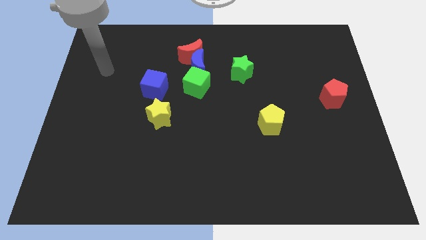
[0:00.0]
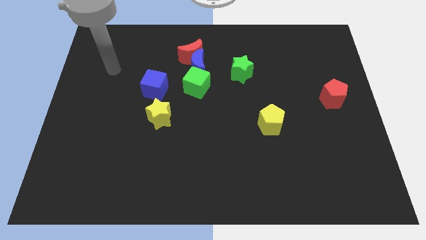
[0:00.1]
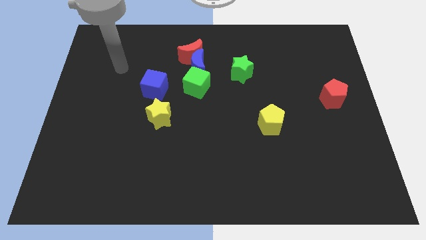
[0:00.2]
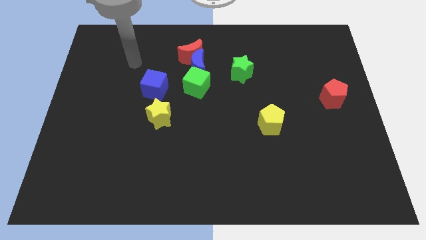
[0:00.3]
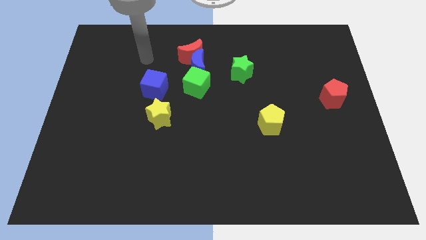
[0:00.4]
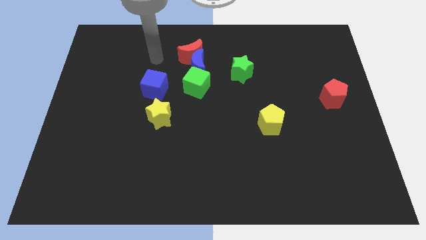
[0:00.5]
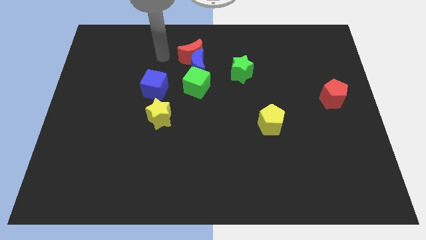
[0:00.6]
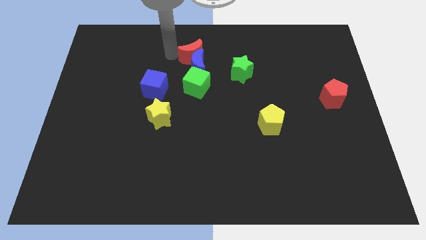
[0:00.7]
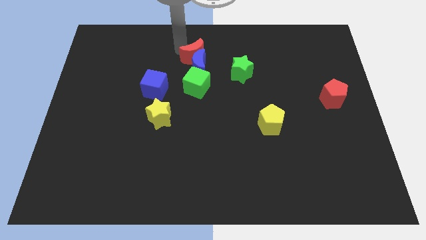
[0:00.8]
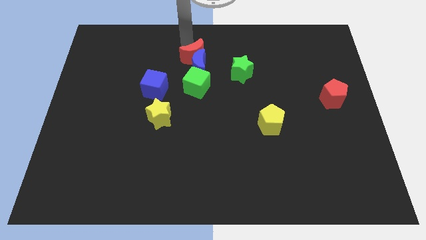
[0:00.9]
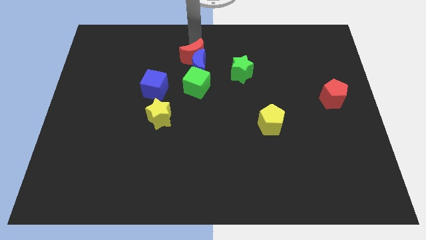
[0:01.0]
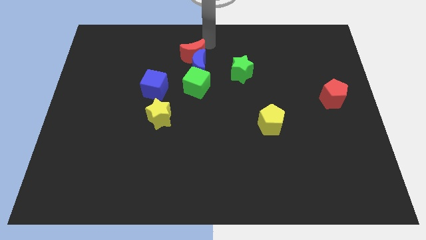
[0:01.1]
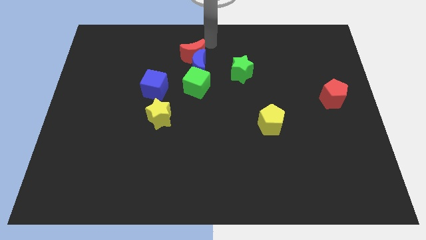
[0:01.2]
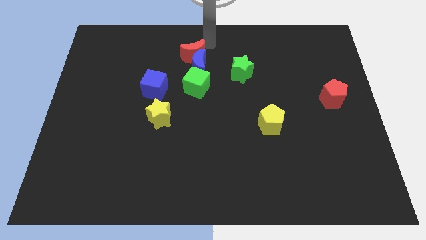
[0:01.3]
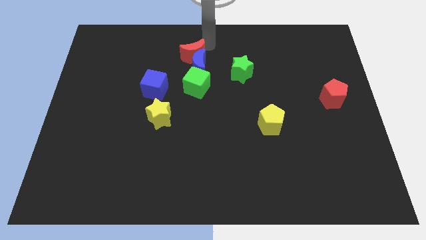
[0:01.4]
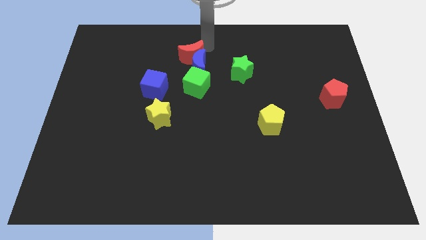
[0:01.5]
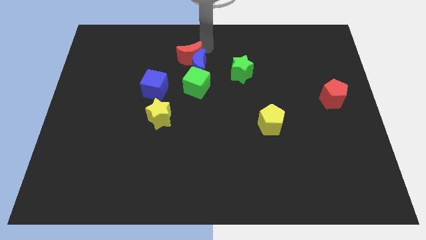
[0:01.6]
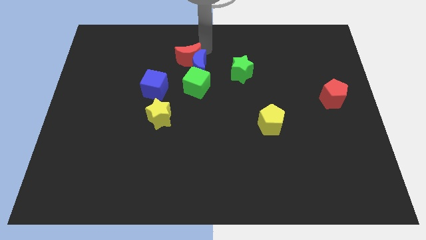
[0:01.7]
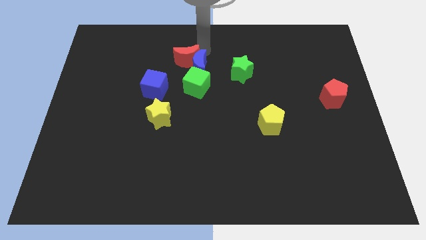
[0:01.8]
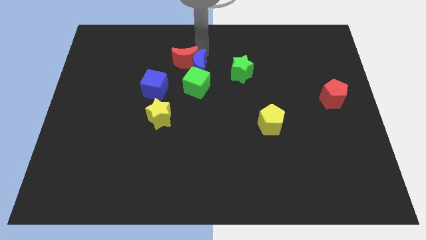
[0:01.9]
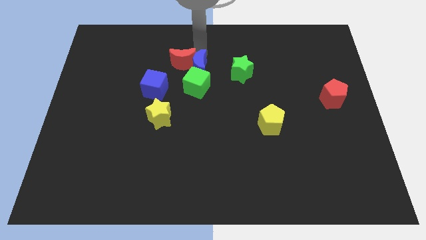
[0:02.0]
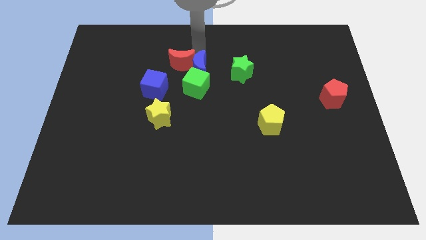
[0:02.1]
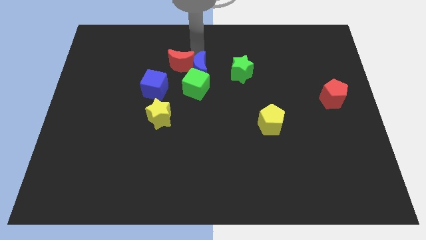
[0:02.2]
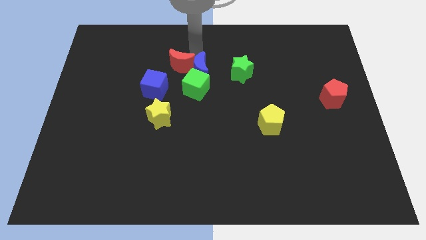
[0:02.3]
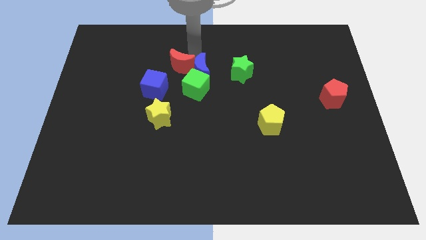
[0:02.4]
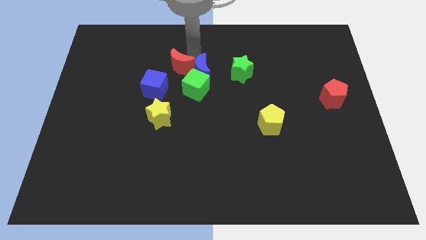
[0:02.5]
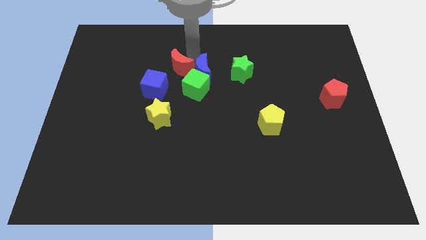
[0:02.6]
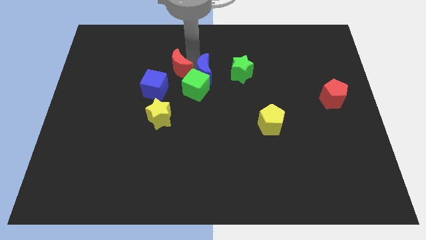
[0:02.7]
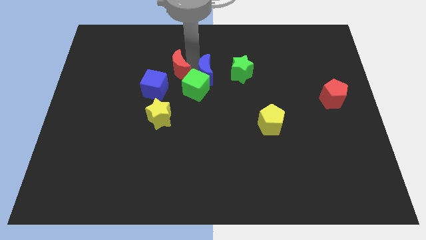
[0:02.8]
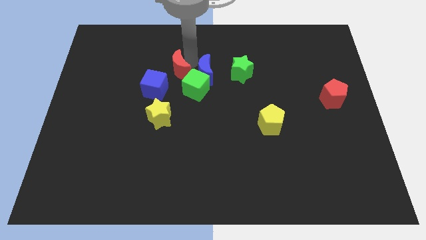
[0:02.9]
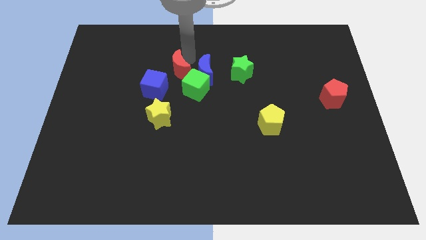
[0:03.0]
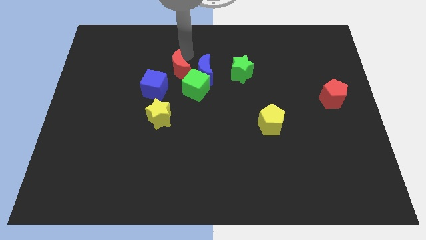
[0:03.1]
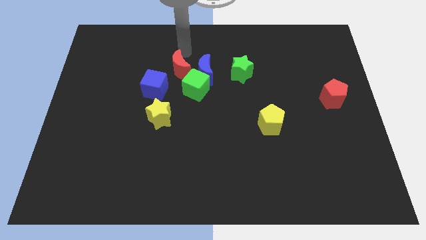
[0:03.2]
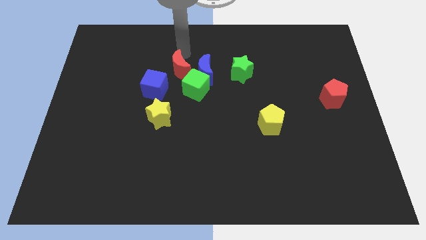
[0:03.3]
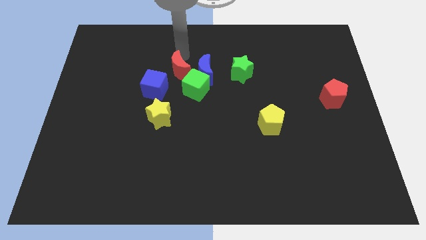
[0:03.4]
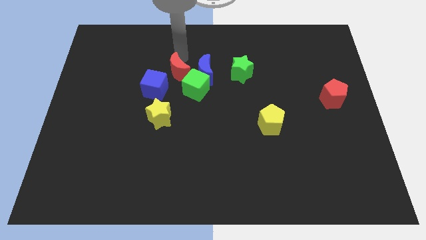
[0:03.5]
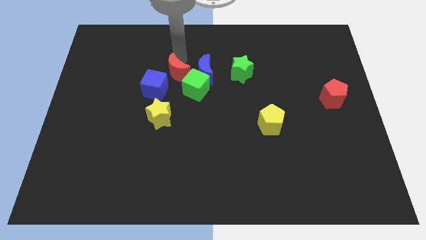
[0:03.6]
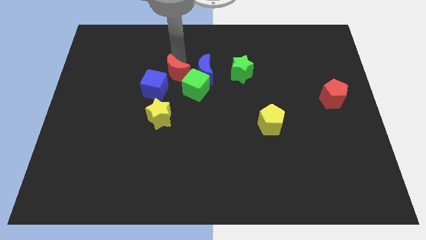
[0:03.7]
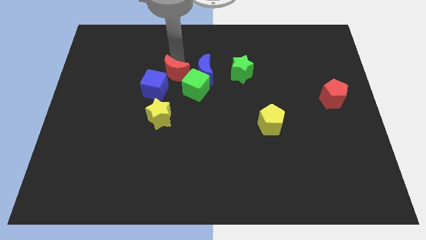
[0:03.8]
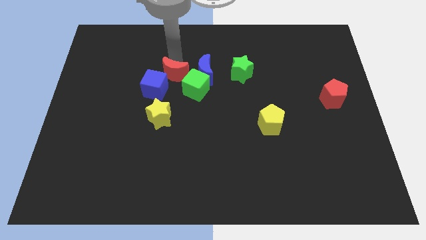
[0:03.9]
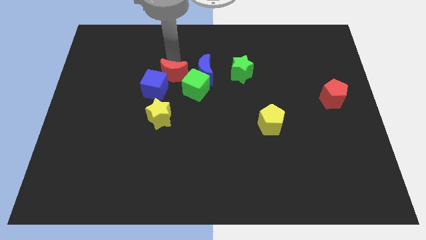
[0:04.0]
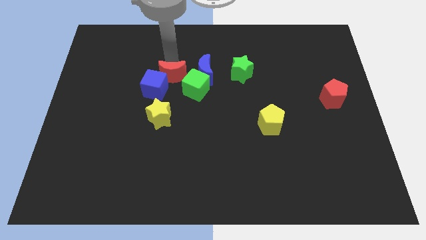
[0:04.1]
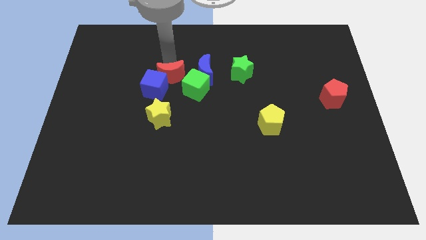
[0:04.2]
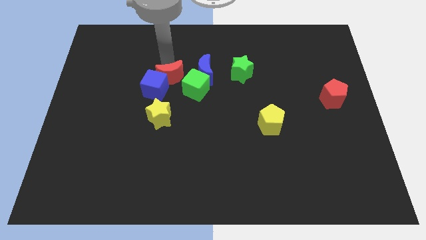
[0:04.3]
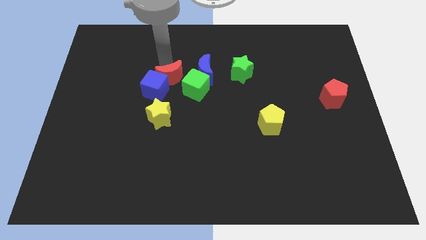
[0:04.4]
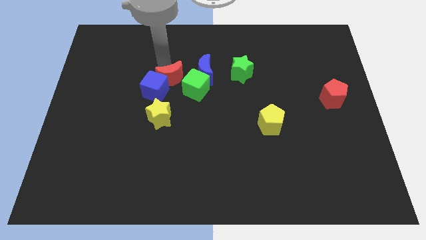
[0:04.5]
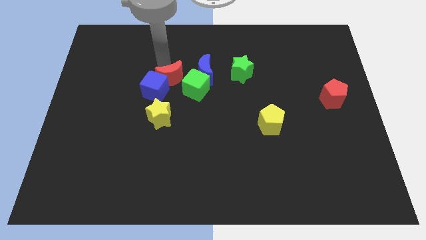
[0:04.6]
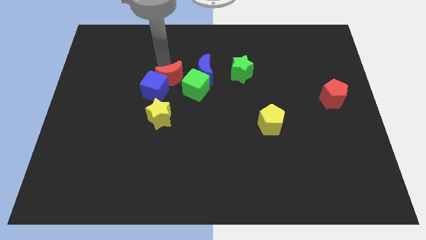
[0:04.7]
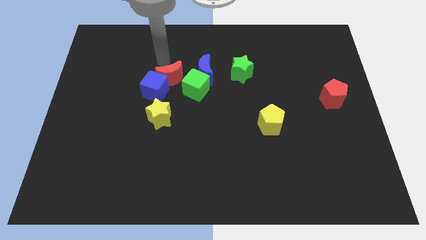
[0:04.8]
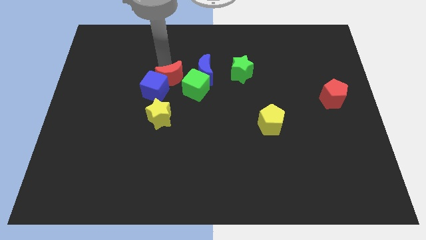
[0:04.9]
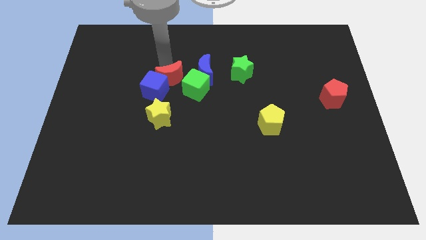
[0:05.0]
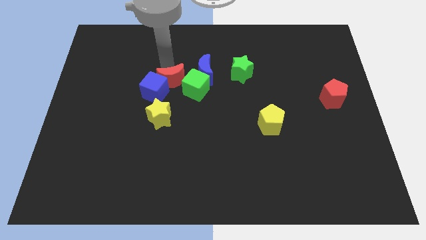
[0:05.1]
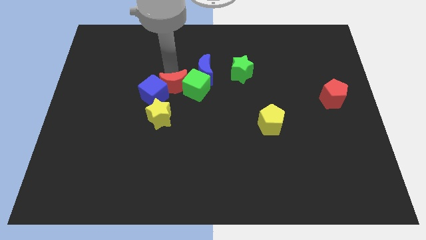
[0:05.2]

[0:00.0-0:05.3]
push the red moon to the bottom left of the green cube
